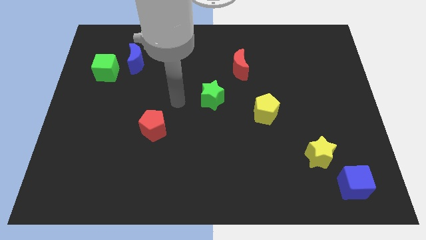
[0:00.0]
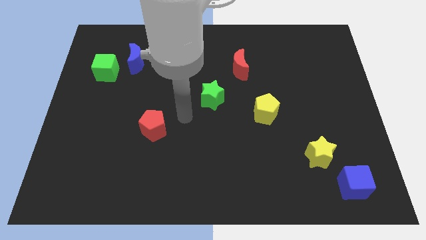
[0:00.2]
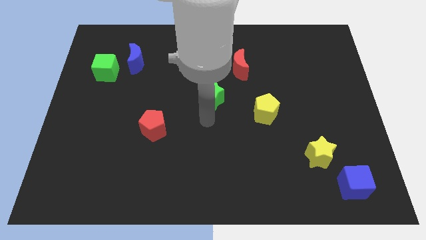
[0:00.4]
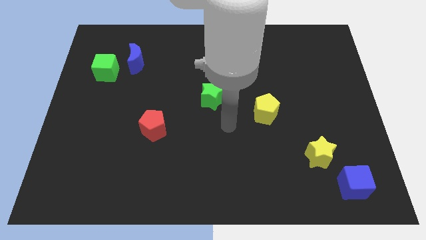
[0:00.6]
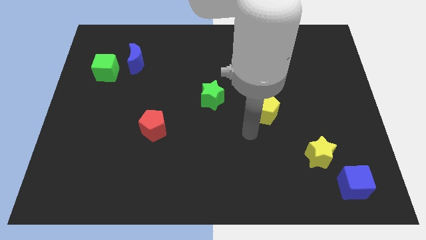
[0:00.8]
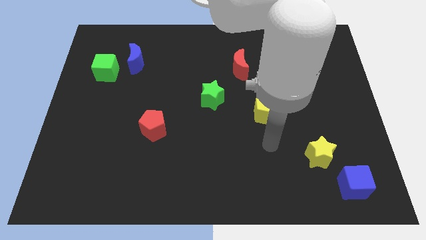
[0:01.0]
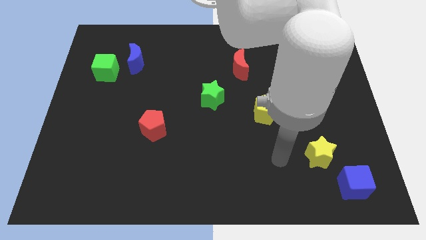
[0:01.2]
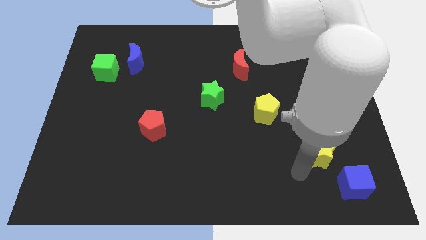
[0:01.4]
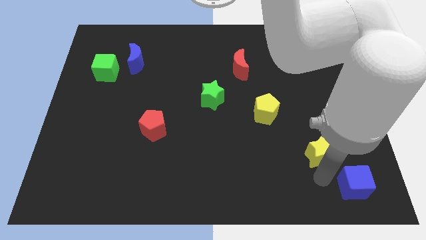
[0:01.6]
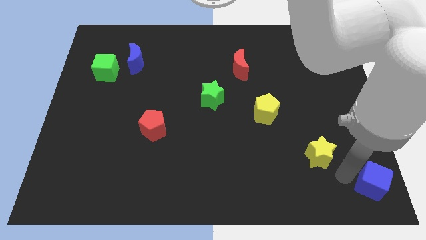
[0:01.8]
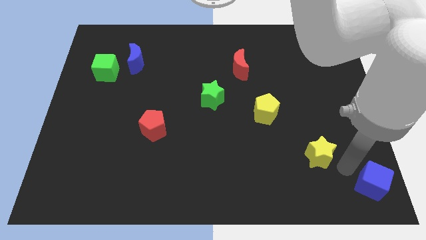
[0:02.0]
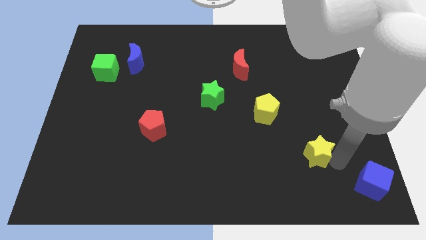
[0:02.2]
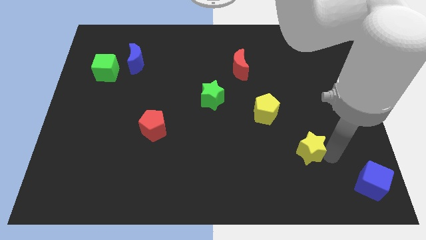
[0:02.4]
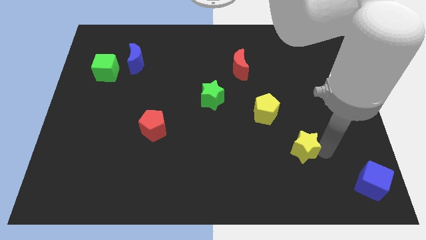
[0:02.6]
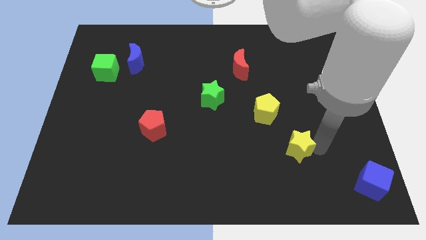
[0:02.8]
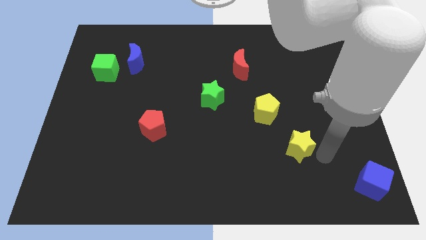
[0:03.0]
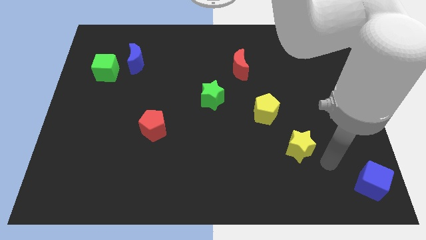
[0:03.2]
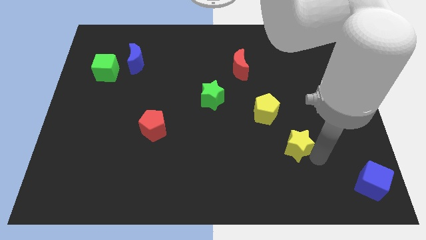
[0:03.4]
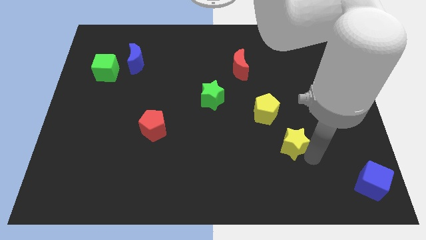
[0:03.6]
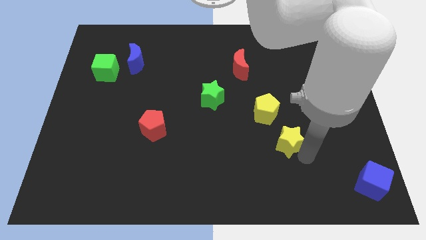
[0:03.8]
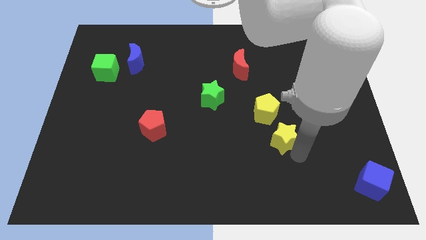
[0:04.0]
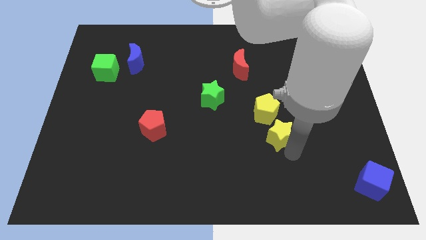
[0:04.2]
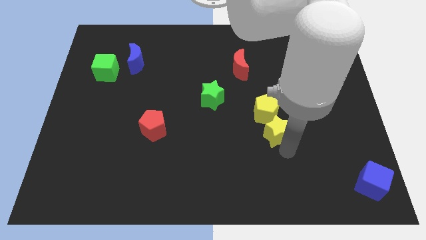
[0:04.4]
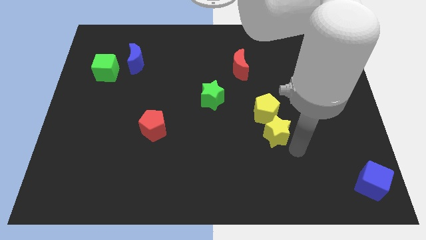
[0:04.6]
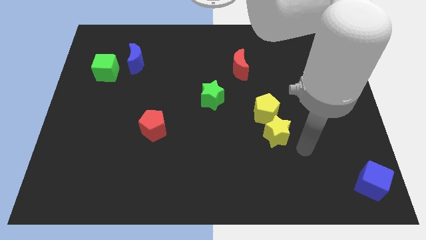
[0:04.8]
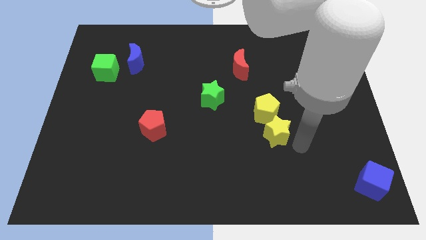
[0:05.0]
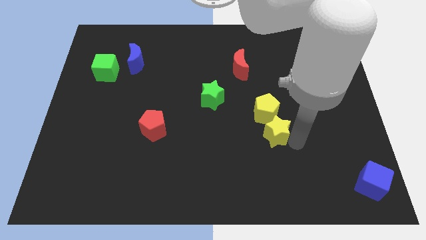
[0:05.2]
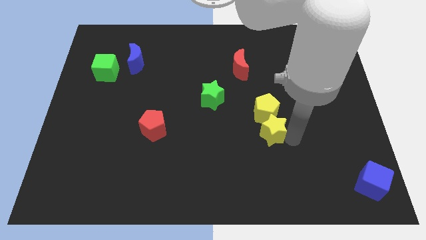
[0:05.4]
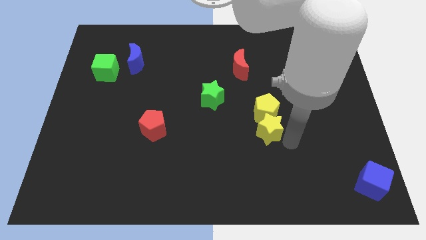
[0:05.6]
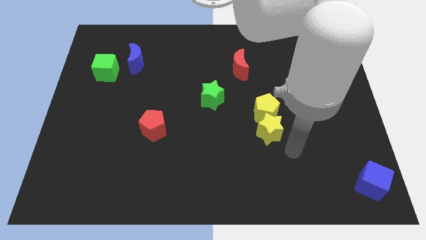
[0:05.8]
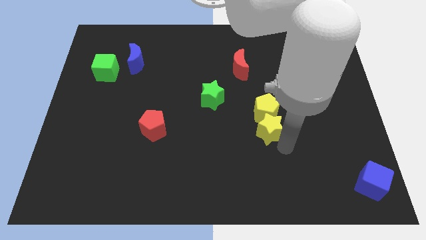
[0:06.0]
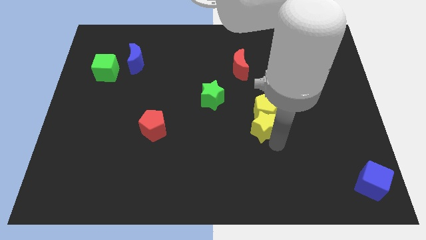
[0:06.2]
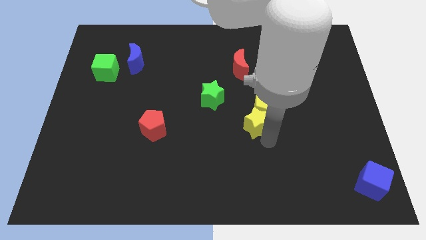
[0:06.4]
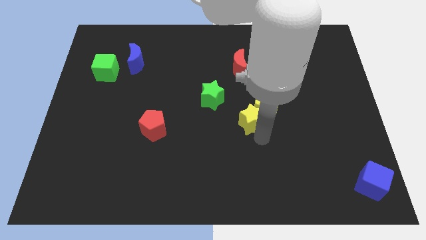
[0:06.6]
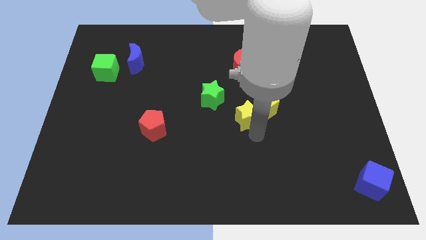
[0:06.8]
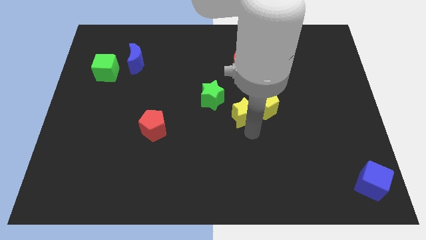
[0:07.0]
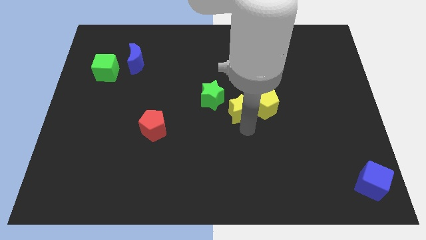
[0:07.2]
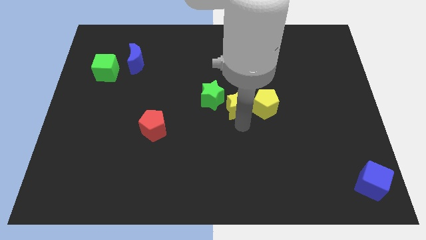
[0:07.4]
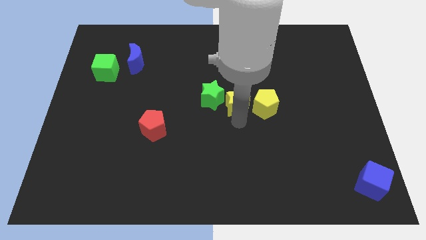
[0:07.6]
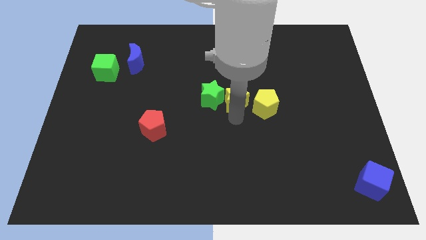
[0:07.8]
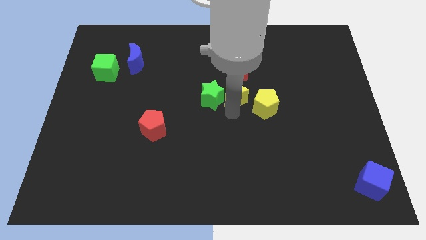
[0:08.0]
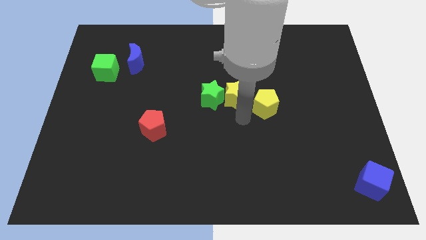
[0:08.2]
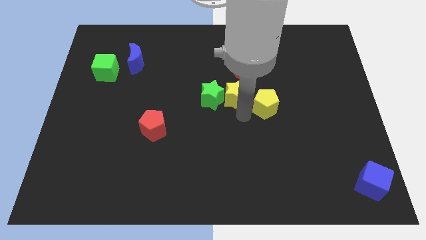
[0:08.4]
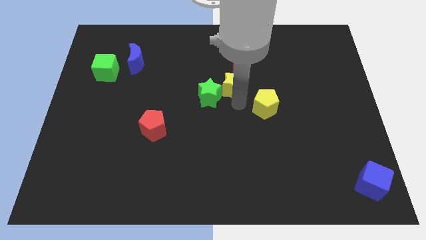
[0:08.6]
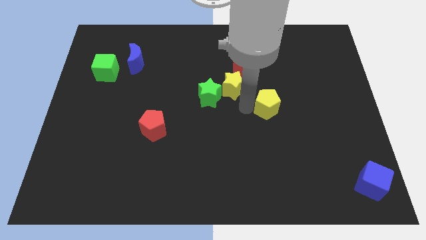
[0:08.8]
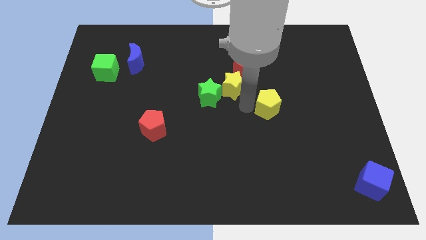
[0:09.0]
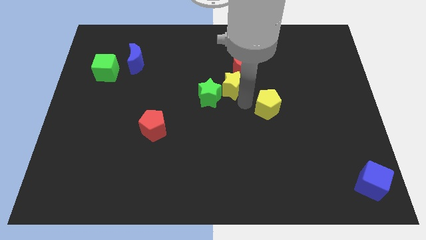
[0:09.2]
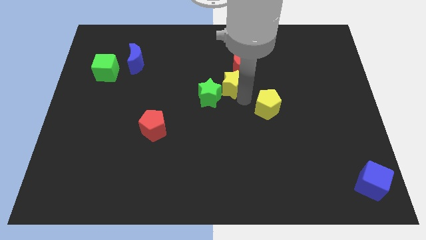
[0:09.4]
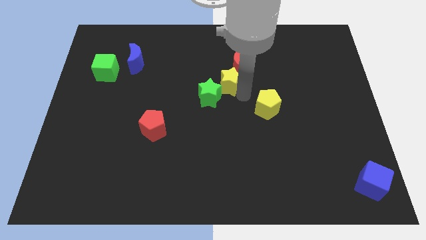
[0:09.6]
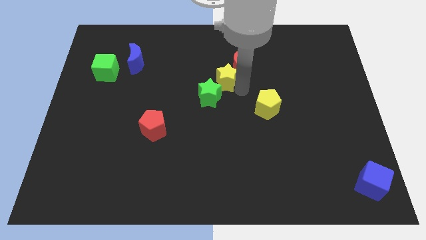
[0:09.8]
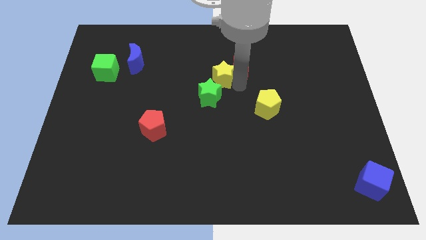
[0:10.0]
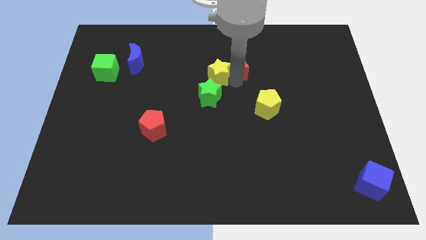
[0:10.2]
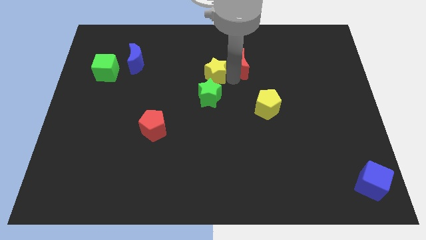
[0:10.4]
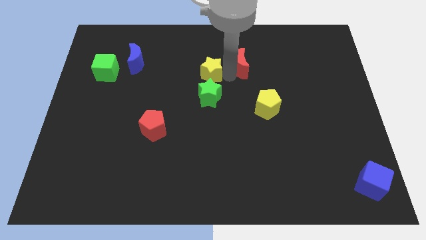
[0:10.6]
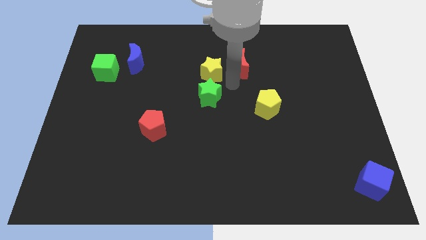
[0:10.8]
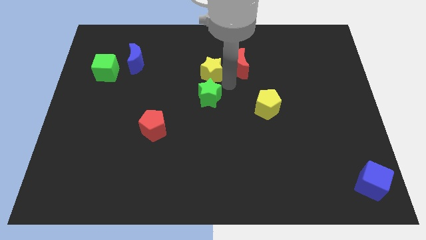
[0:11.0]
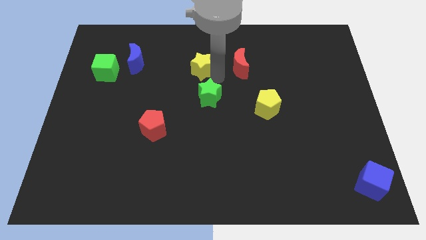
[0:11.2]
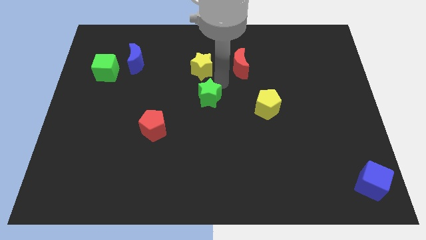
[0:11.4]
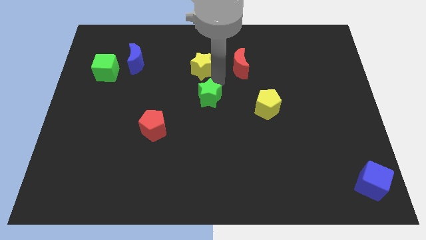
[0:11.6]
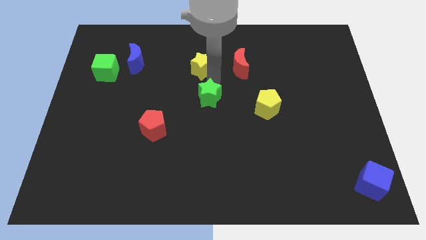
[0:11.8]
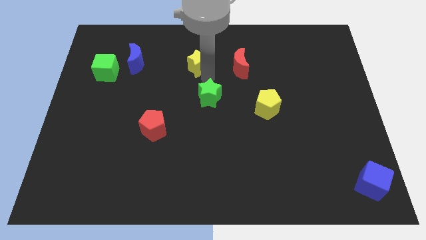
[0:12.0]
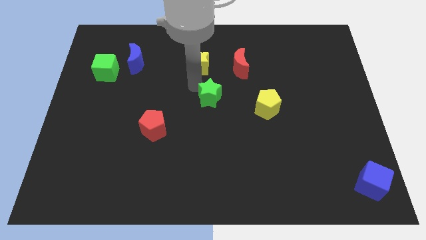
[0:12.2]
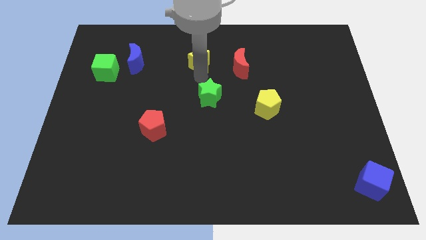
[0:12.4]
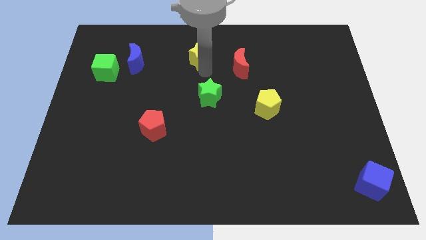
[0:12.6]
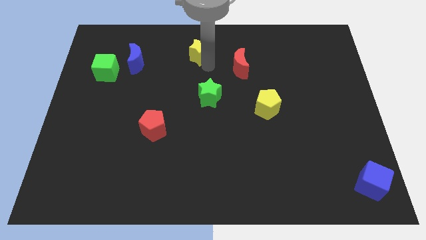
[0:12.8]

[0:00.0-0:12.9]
put the yellow star to the top

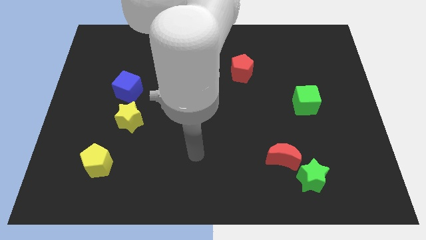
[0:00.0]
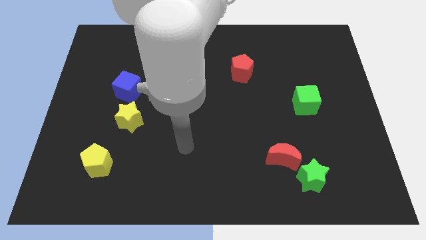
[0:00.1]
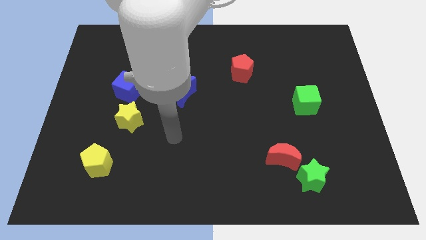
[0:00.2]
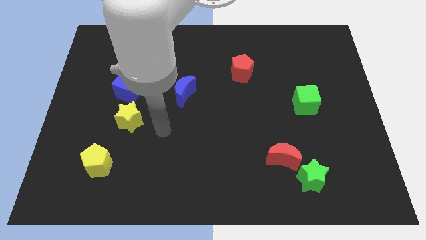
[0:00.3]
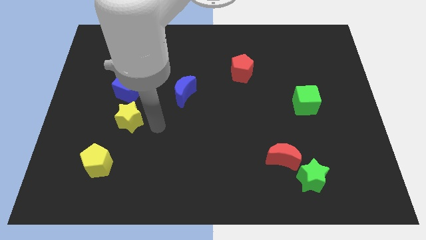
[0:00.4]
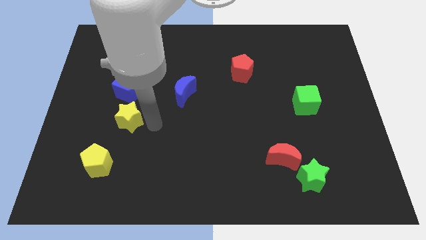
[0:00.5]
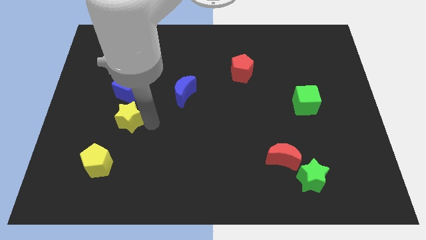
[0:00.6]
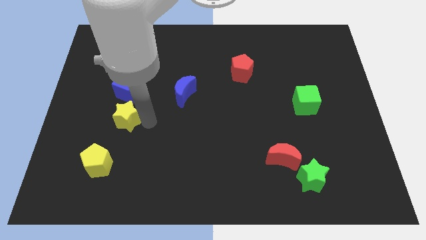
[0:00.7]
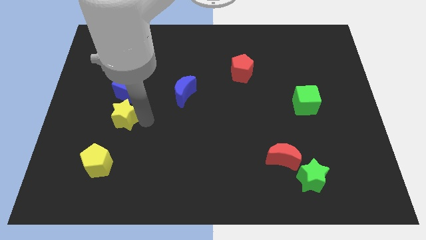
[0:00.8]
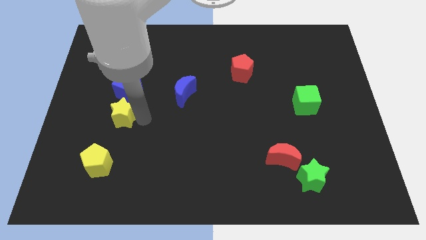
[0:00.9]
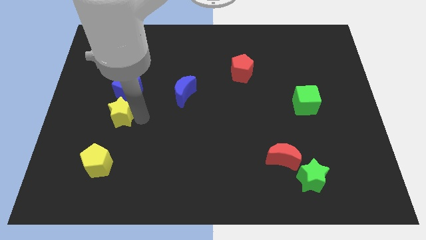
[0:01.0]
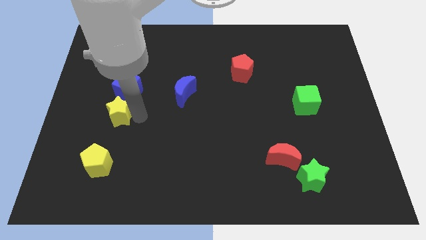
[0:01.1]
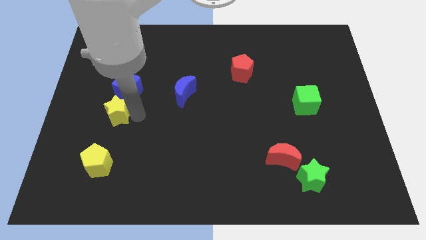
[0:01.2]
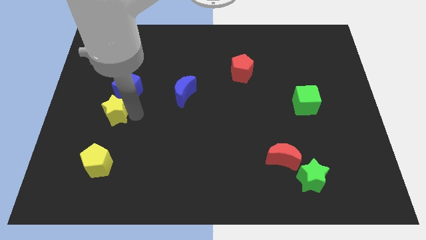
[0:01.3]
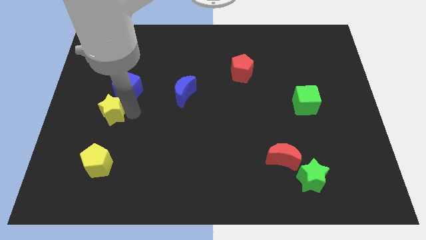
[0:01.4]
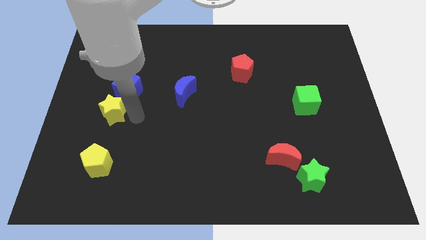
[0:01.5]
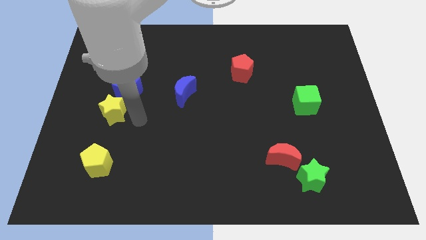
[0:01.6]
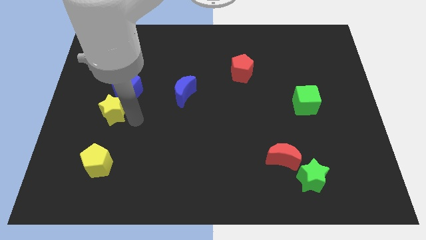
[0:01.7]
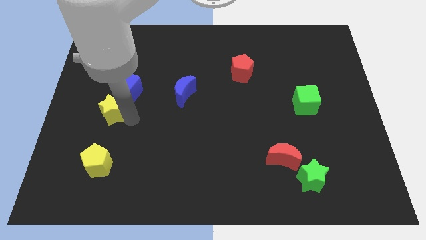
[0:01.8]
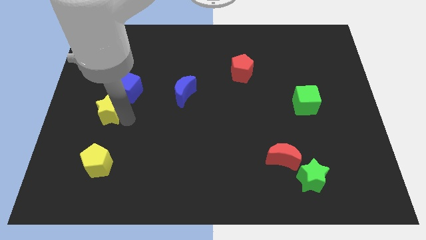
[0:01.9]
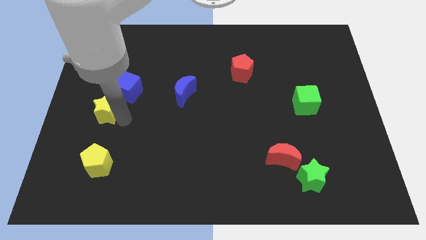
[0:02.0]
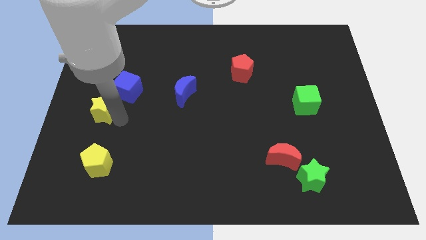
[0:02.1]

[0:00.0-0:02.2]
slide the yellow star to the left side of the board
